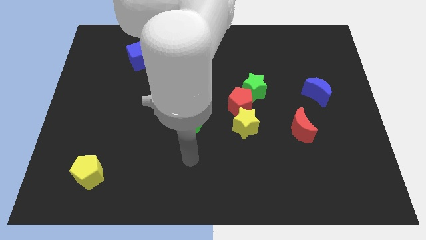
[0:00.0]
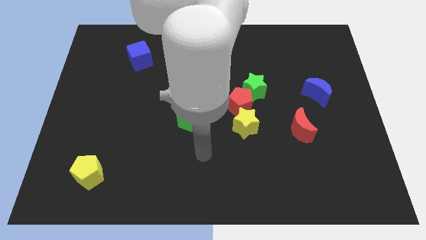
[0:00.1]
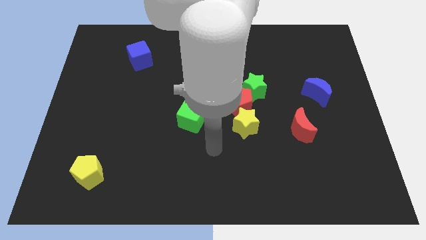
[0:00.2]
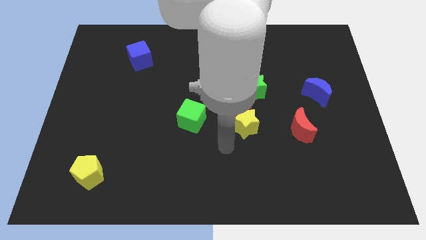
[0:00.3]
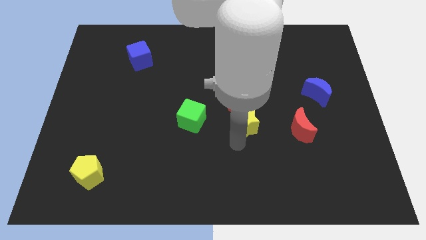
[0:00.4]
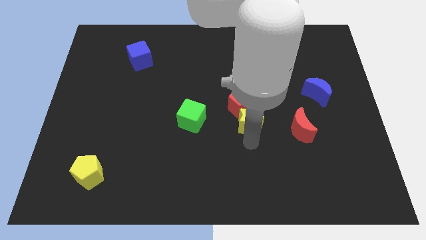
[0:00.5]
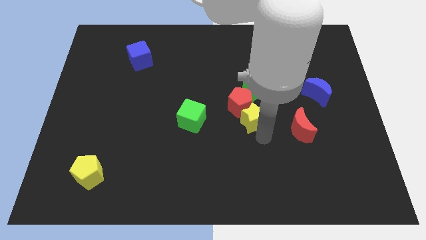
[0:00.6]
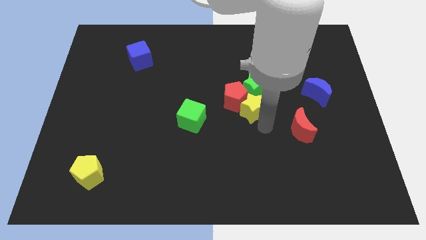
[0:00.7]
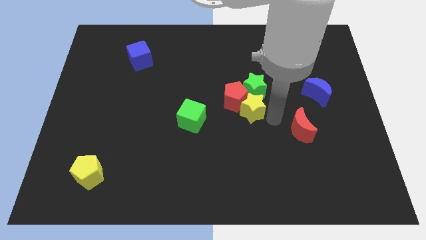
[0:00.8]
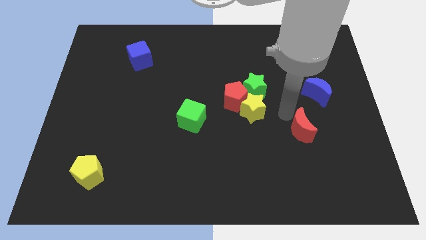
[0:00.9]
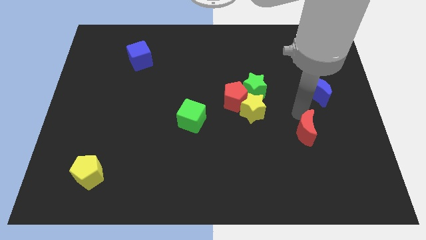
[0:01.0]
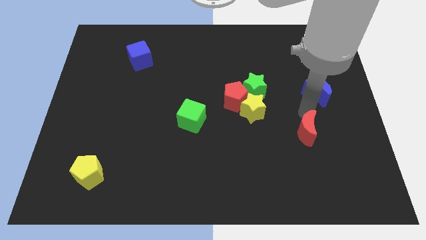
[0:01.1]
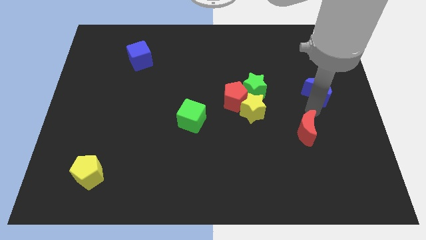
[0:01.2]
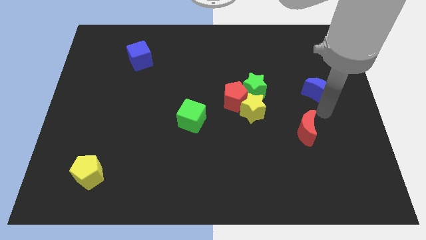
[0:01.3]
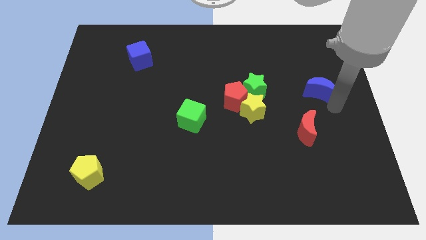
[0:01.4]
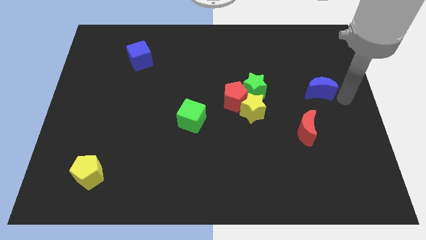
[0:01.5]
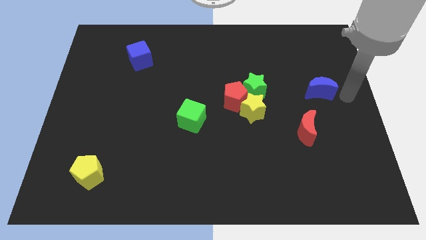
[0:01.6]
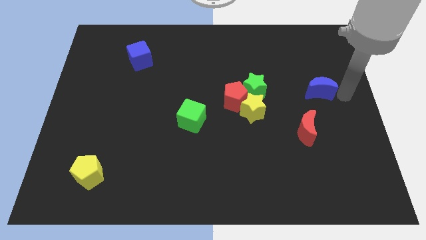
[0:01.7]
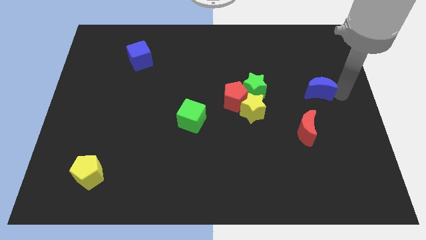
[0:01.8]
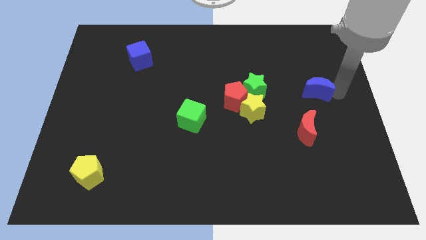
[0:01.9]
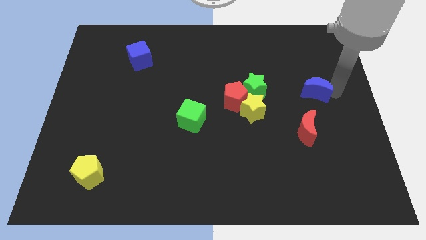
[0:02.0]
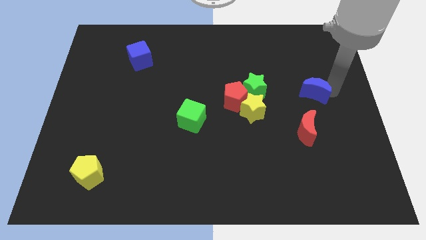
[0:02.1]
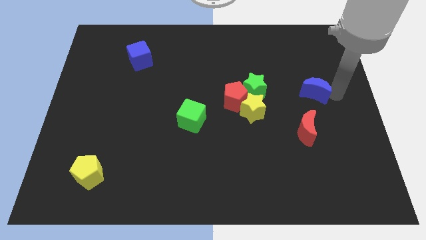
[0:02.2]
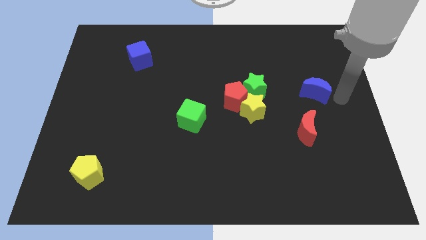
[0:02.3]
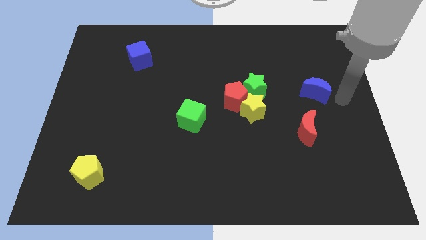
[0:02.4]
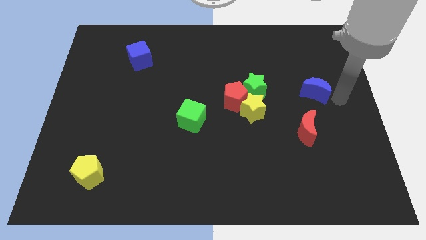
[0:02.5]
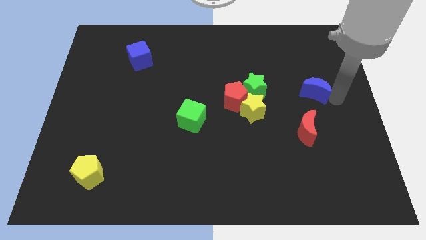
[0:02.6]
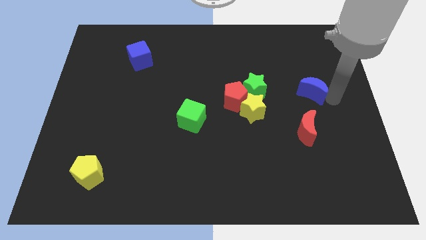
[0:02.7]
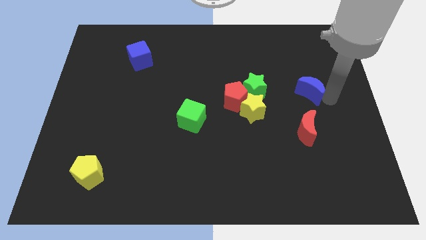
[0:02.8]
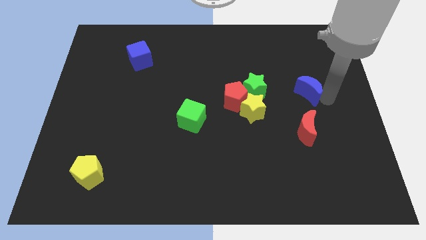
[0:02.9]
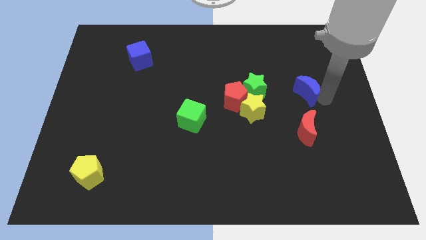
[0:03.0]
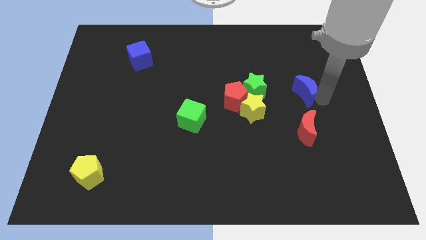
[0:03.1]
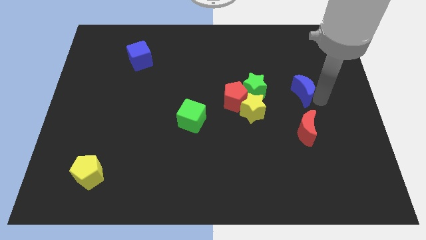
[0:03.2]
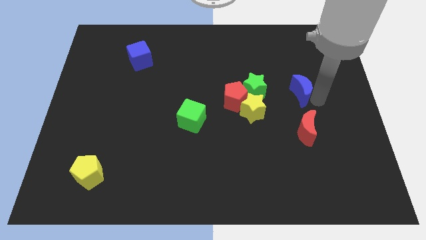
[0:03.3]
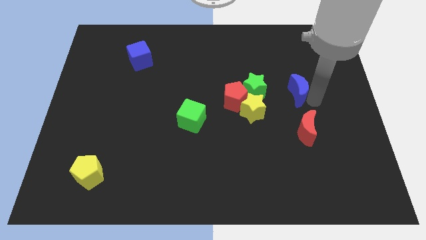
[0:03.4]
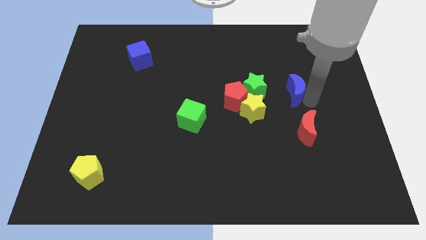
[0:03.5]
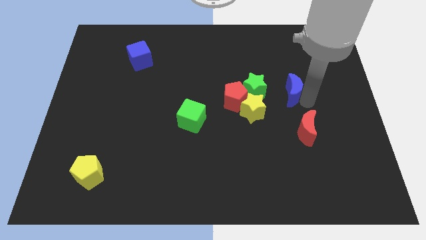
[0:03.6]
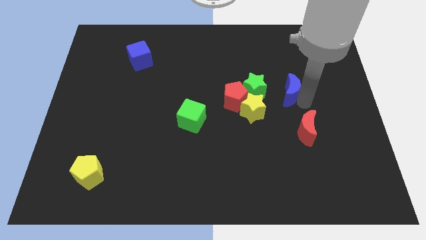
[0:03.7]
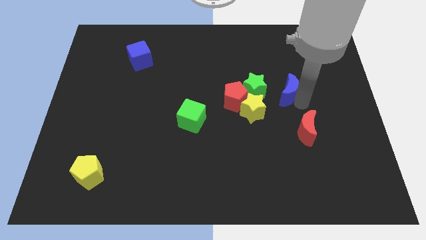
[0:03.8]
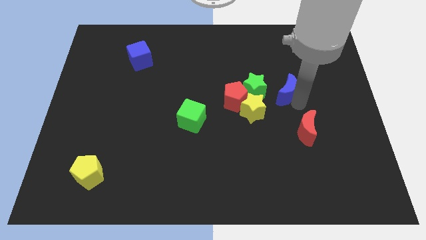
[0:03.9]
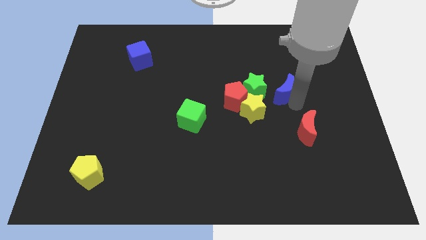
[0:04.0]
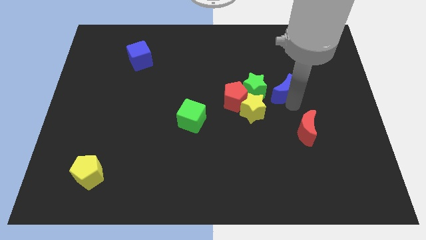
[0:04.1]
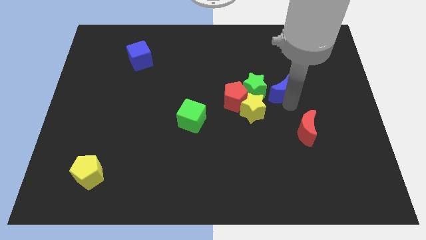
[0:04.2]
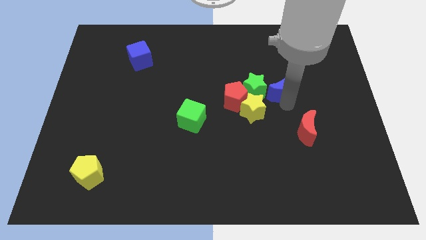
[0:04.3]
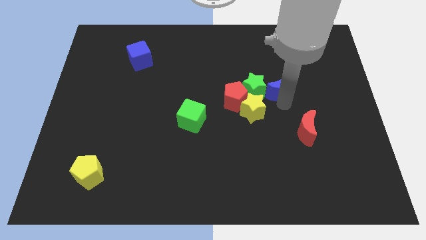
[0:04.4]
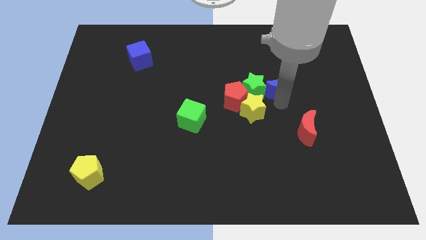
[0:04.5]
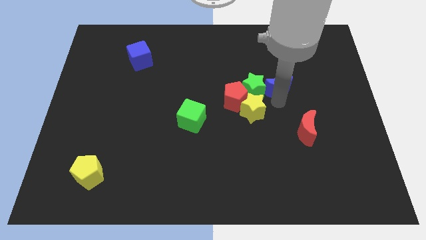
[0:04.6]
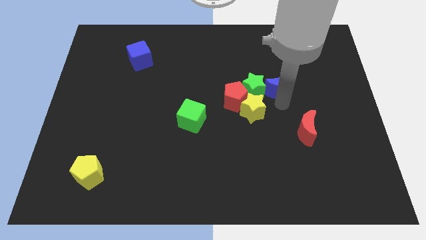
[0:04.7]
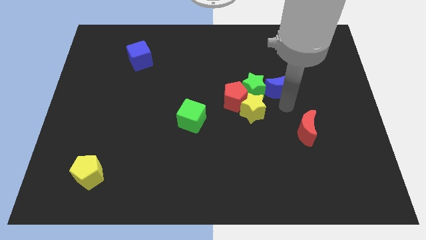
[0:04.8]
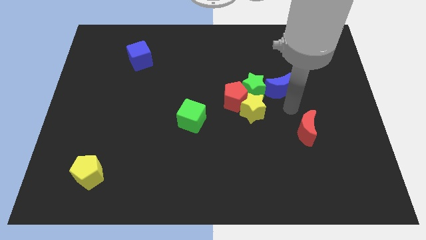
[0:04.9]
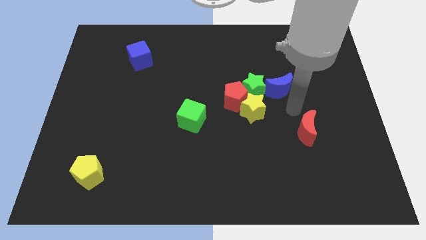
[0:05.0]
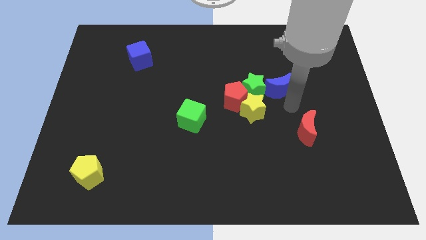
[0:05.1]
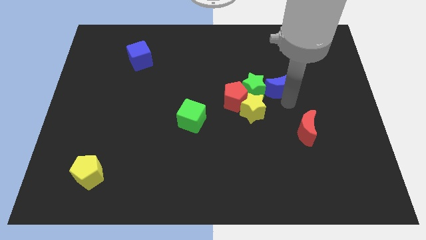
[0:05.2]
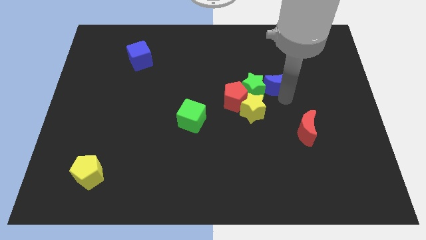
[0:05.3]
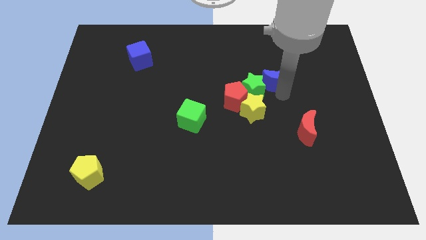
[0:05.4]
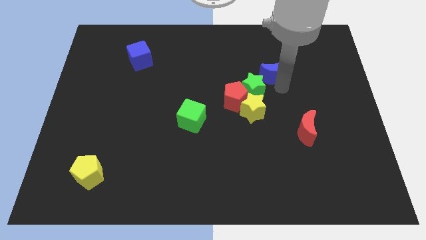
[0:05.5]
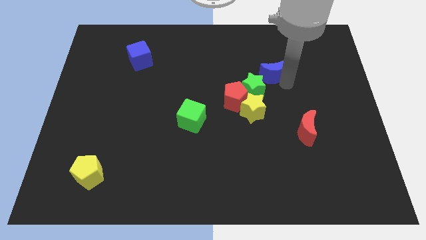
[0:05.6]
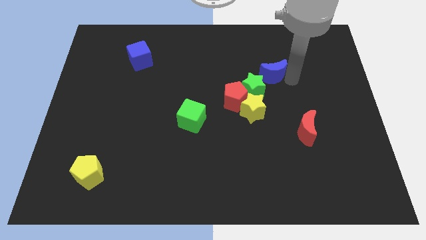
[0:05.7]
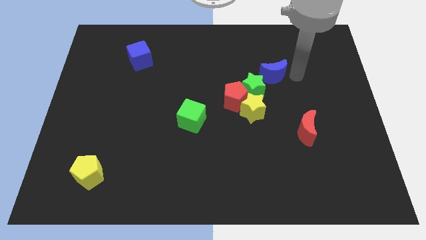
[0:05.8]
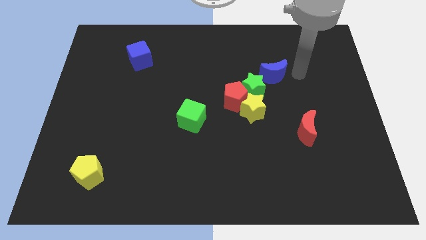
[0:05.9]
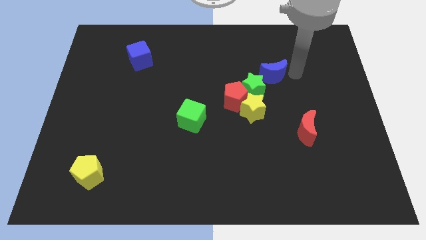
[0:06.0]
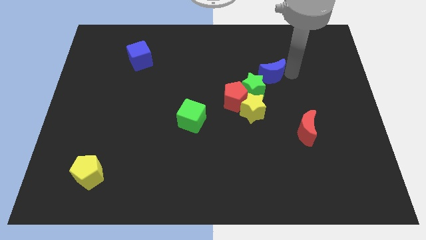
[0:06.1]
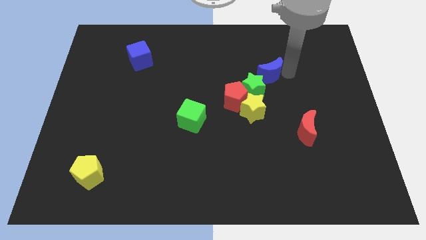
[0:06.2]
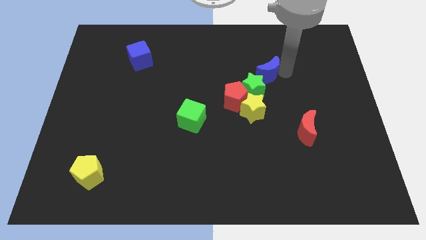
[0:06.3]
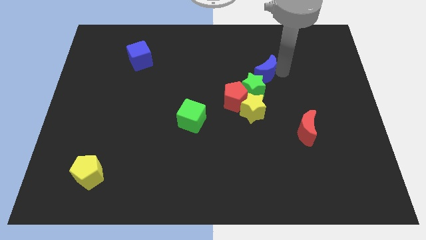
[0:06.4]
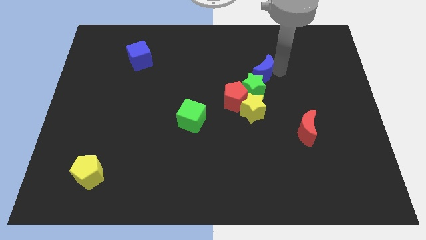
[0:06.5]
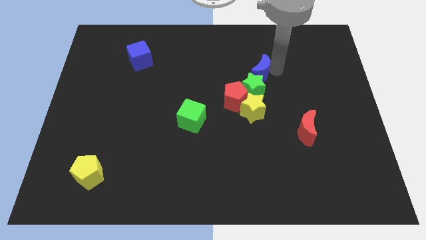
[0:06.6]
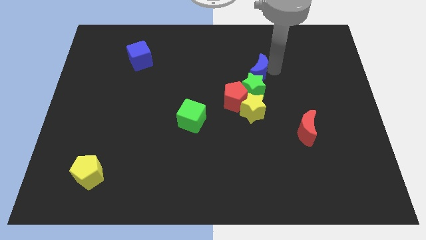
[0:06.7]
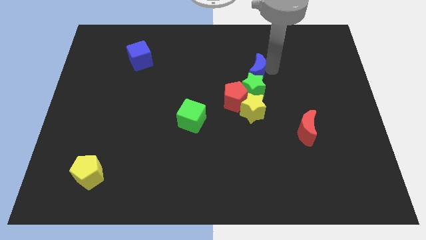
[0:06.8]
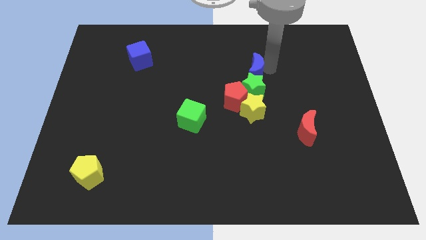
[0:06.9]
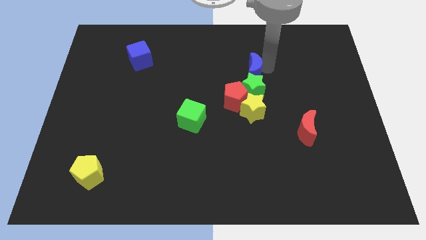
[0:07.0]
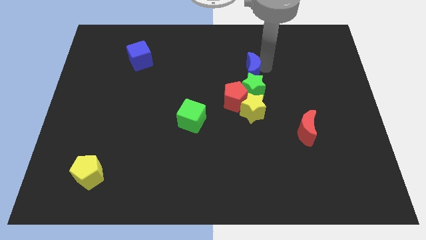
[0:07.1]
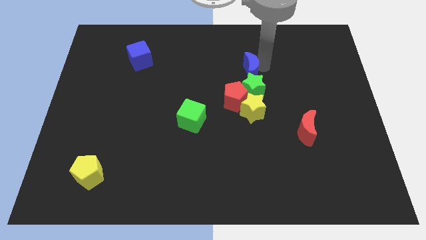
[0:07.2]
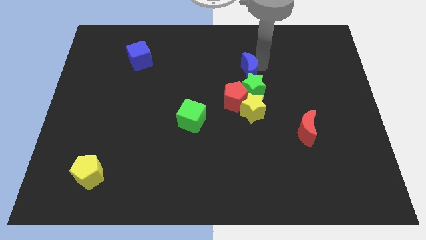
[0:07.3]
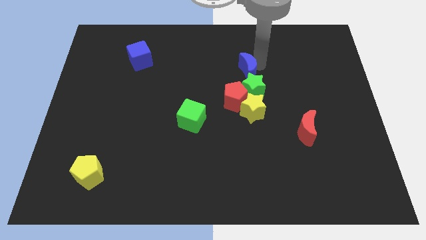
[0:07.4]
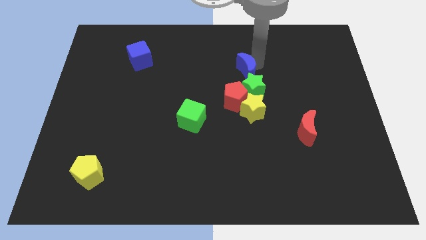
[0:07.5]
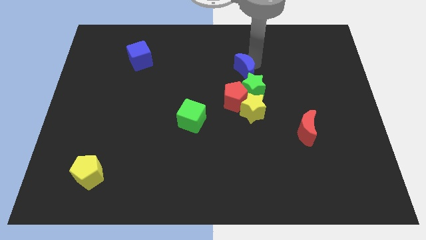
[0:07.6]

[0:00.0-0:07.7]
move the blue moon to the center of the board
